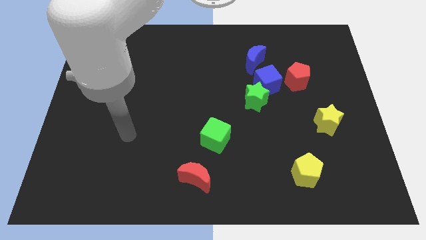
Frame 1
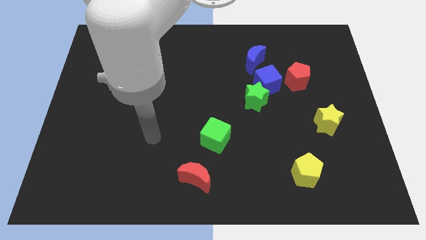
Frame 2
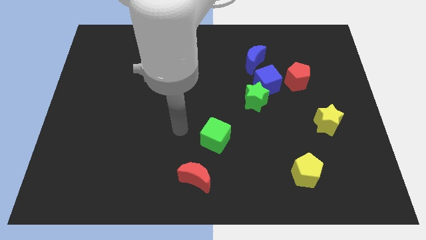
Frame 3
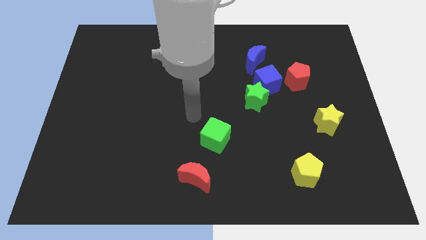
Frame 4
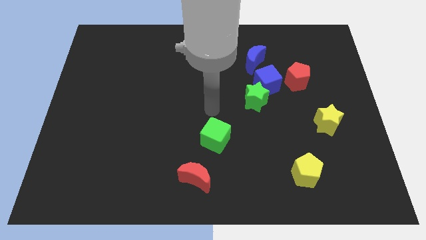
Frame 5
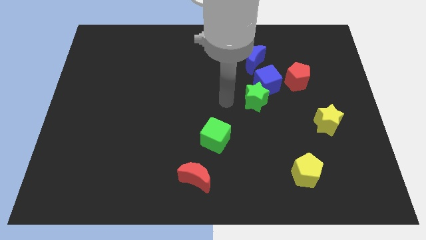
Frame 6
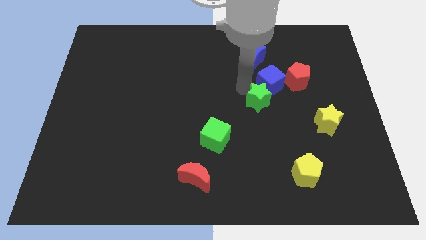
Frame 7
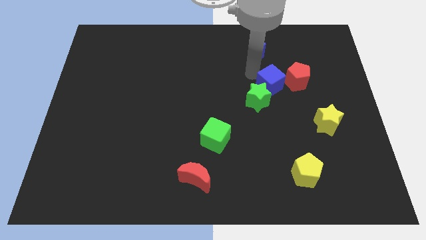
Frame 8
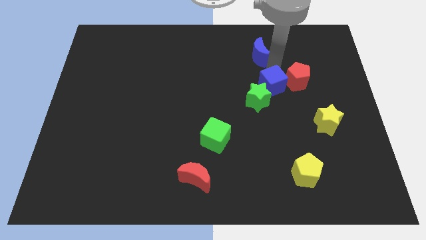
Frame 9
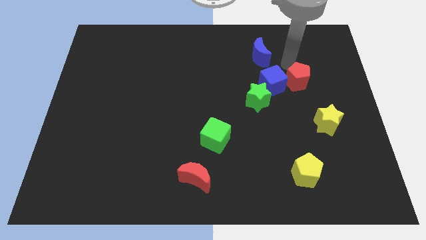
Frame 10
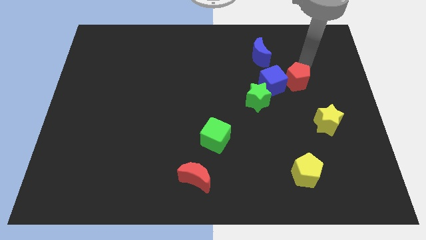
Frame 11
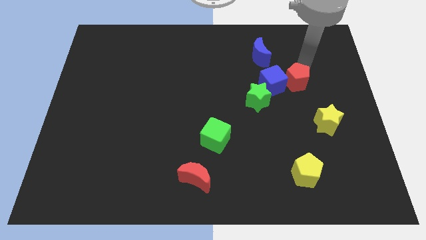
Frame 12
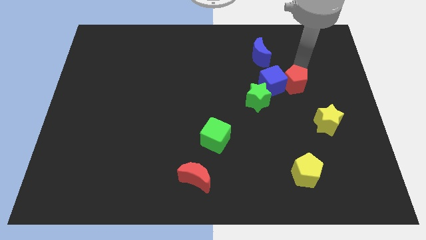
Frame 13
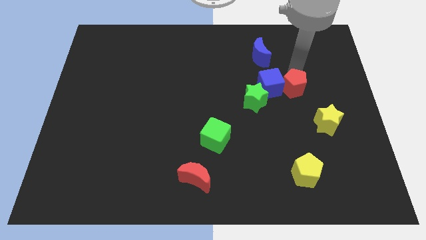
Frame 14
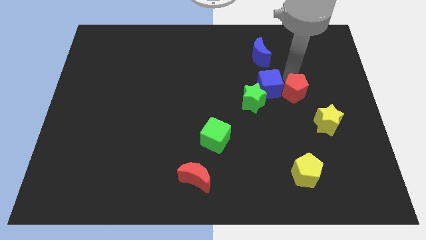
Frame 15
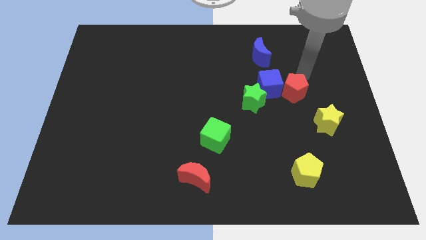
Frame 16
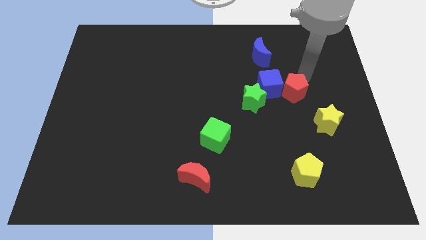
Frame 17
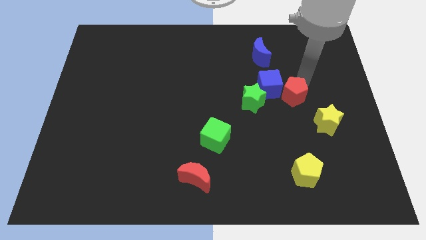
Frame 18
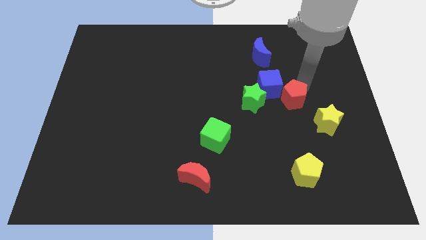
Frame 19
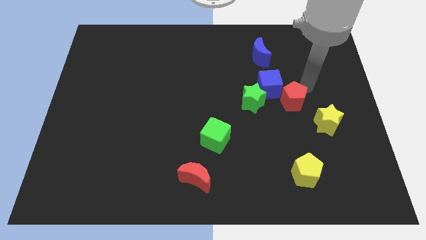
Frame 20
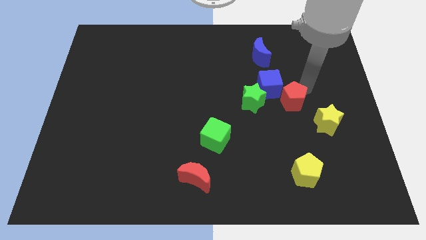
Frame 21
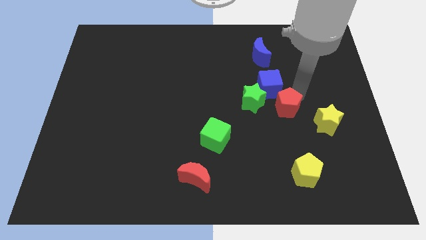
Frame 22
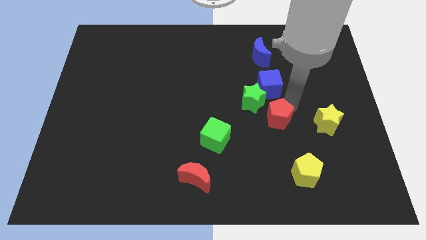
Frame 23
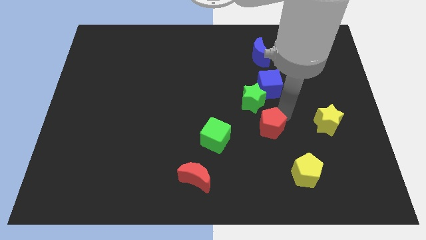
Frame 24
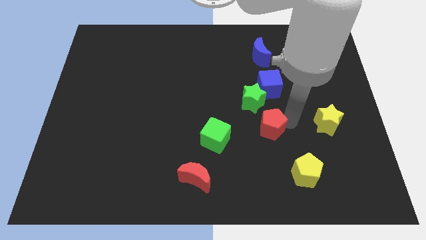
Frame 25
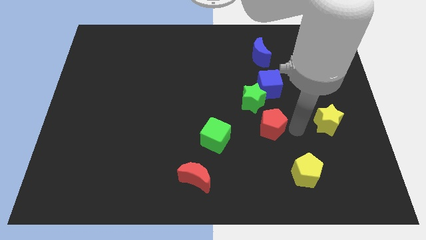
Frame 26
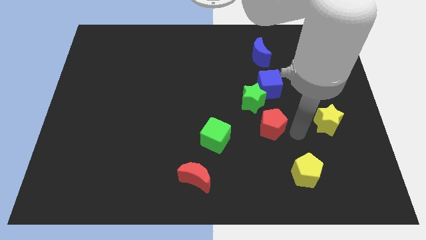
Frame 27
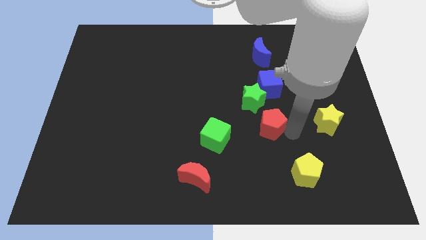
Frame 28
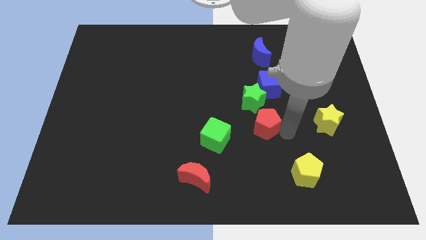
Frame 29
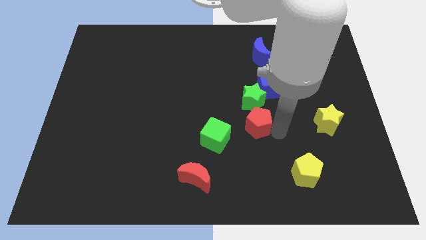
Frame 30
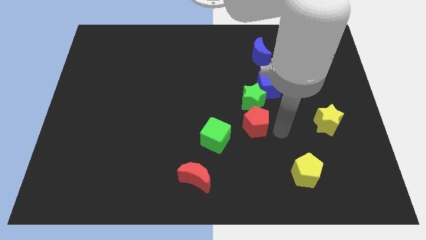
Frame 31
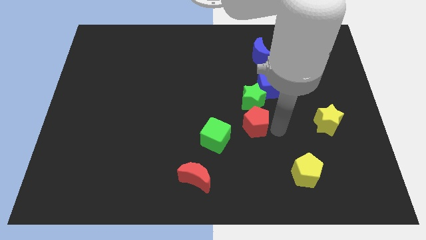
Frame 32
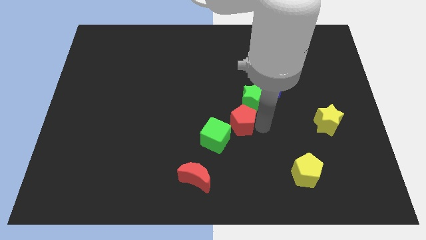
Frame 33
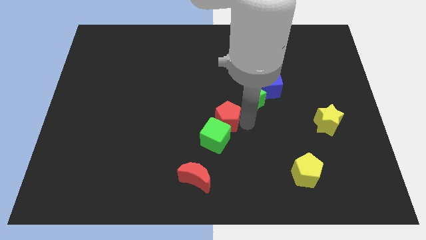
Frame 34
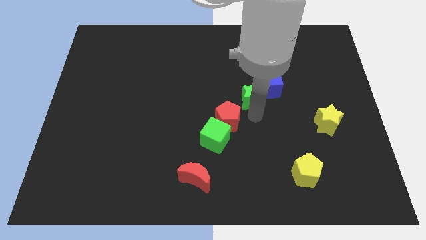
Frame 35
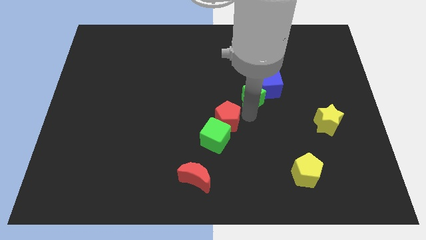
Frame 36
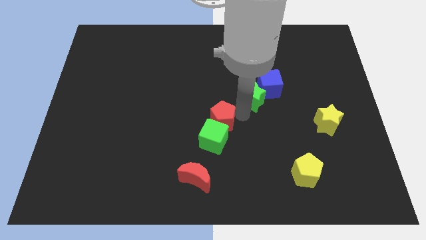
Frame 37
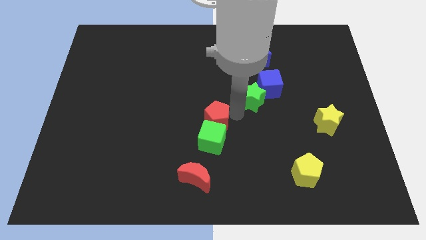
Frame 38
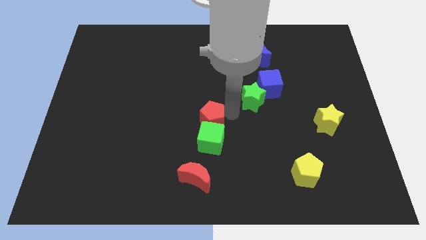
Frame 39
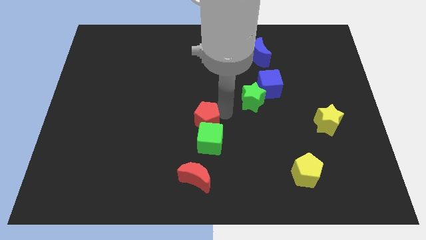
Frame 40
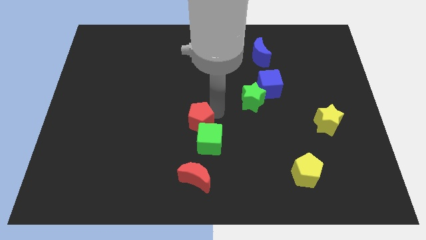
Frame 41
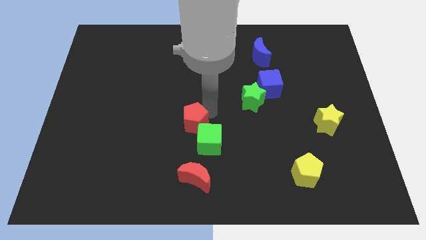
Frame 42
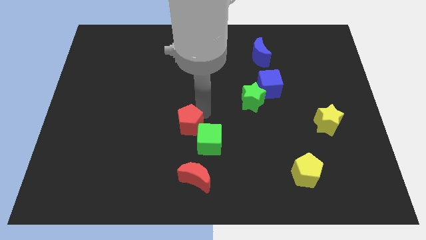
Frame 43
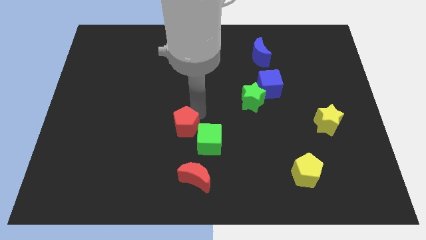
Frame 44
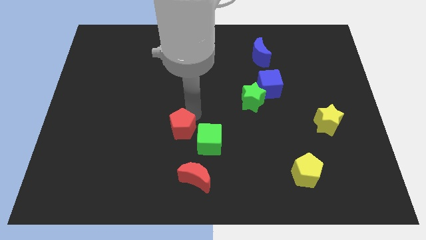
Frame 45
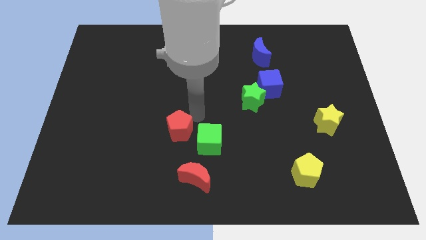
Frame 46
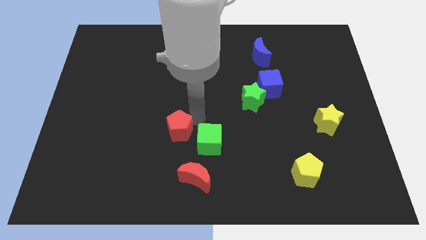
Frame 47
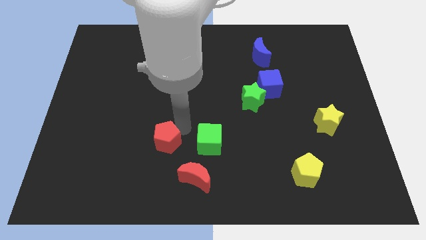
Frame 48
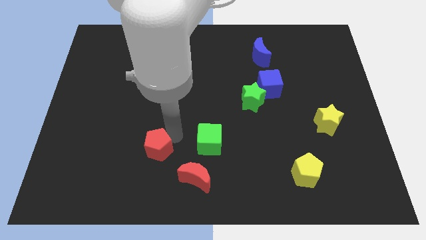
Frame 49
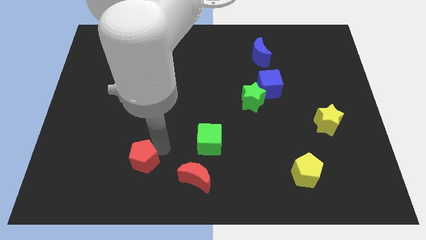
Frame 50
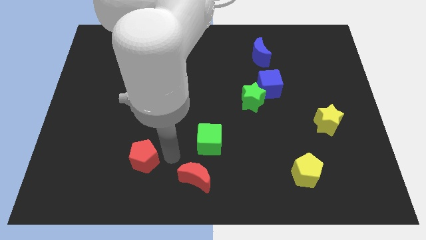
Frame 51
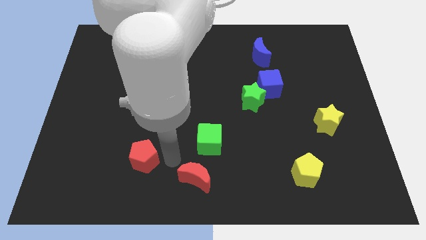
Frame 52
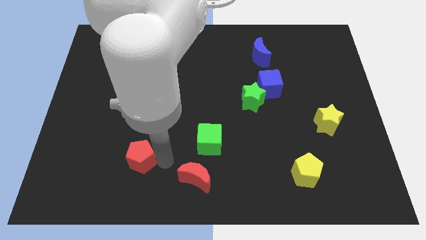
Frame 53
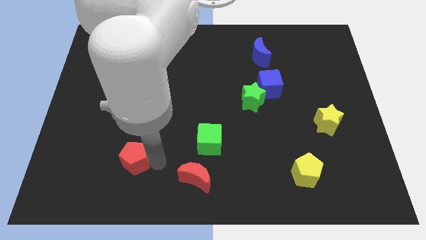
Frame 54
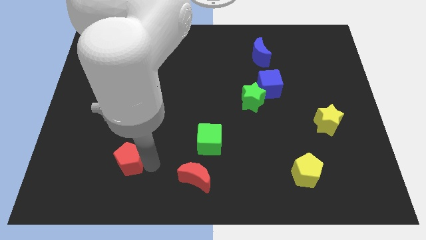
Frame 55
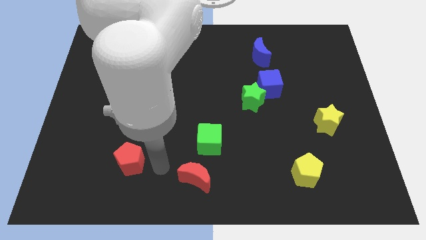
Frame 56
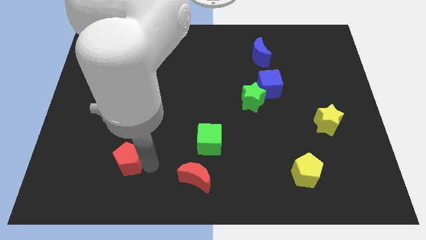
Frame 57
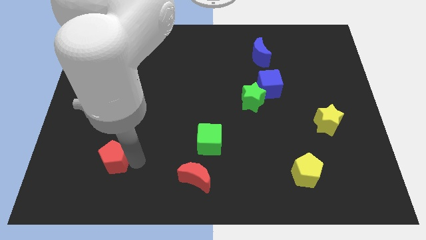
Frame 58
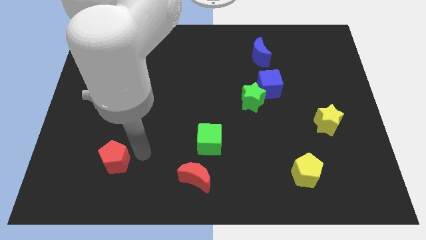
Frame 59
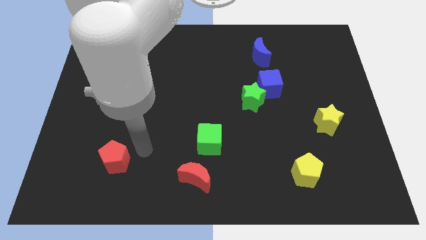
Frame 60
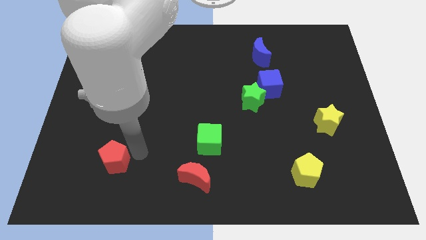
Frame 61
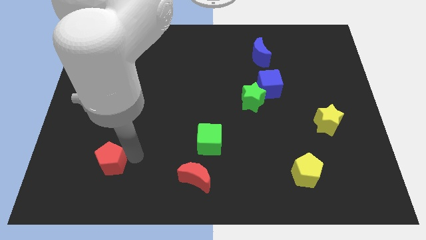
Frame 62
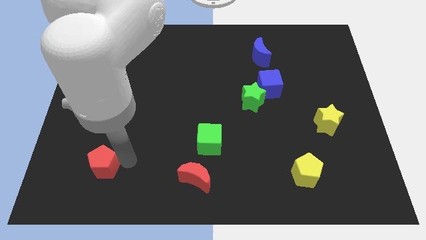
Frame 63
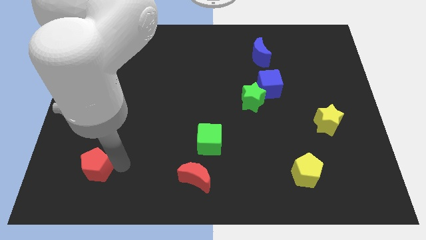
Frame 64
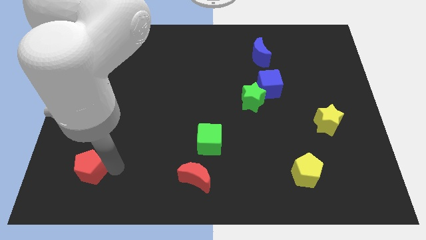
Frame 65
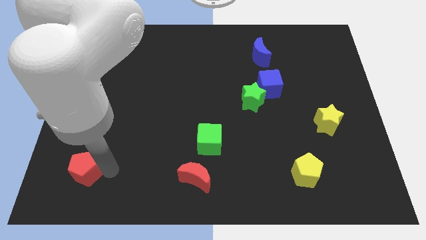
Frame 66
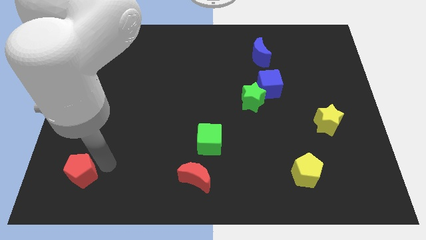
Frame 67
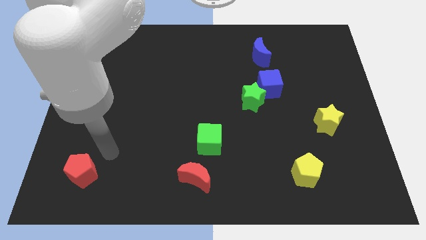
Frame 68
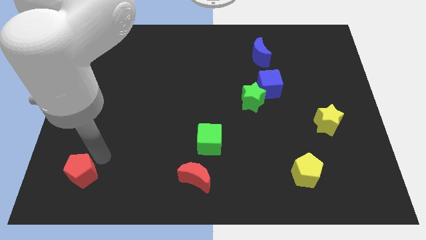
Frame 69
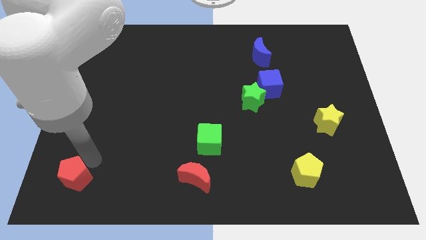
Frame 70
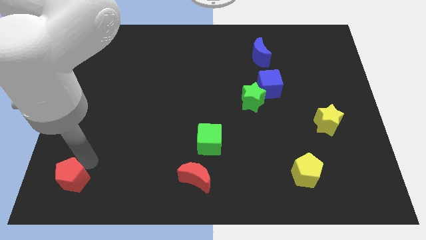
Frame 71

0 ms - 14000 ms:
push the red pentagon to the bottom left corner
